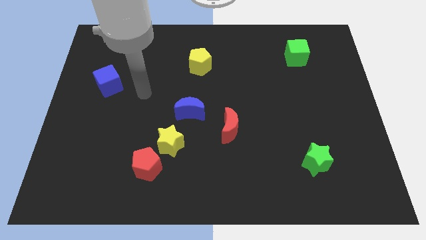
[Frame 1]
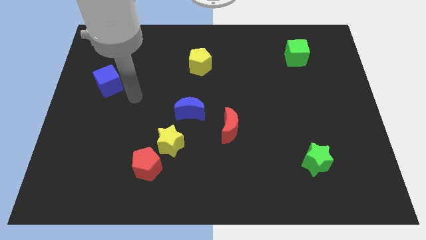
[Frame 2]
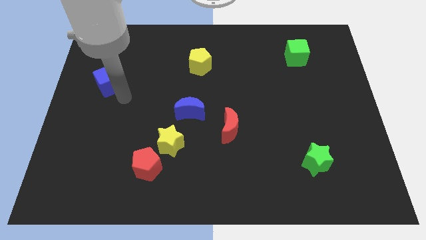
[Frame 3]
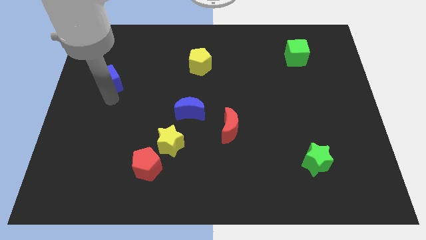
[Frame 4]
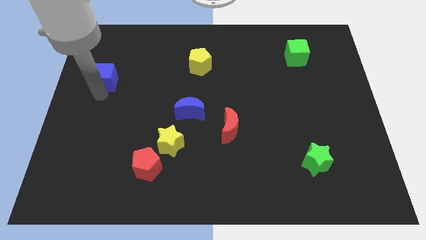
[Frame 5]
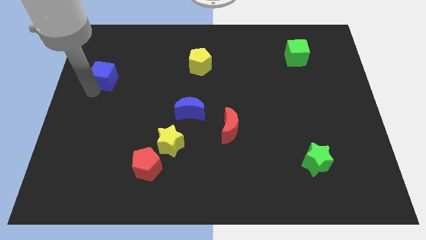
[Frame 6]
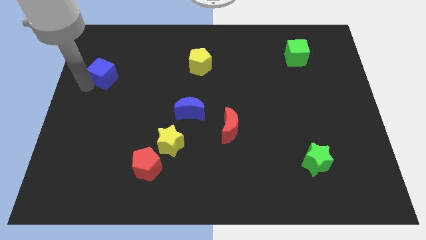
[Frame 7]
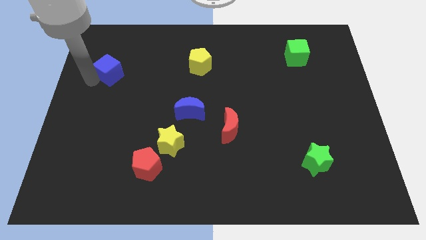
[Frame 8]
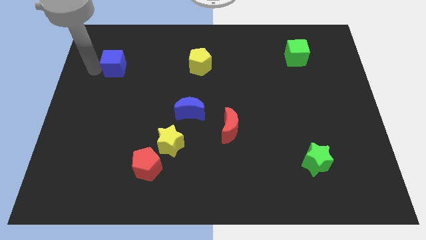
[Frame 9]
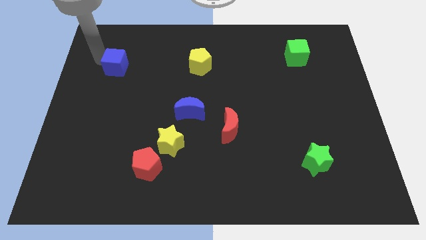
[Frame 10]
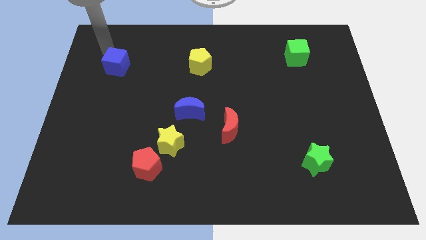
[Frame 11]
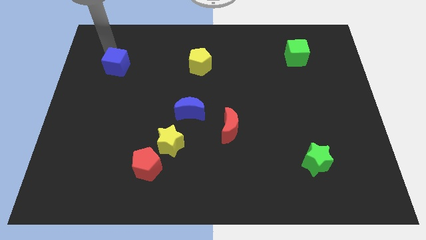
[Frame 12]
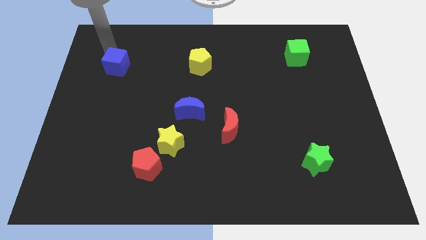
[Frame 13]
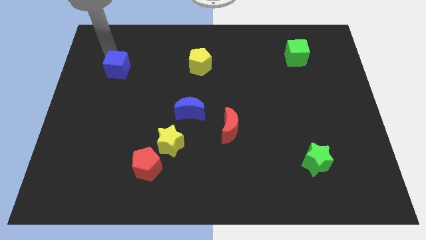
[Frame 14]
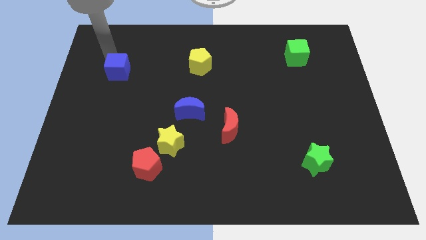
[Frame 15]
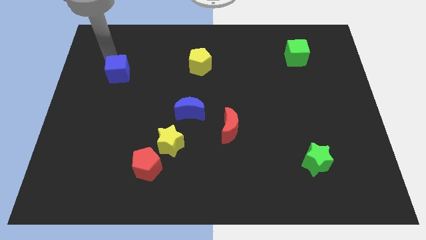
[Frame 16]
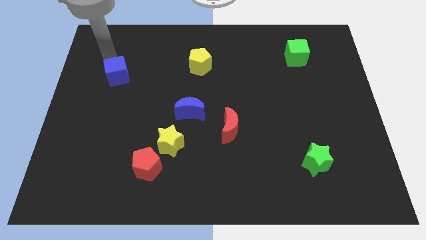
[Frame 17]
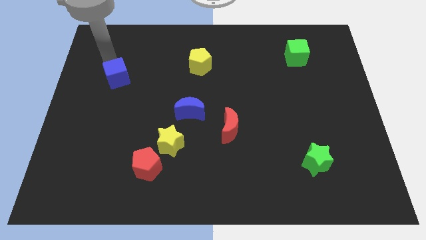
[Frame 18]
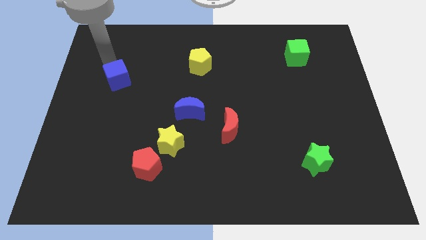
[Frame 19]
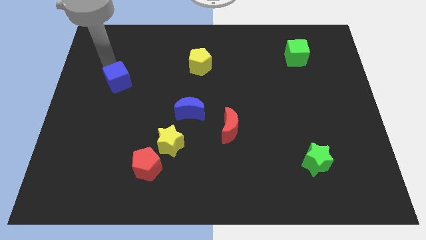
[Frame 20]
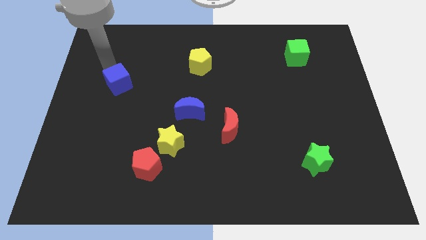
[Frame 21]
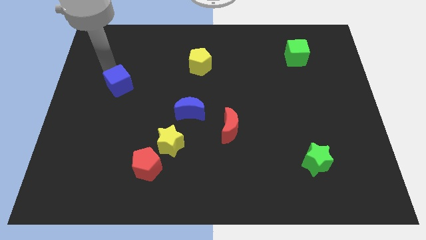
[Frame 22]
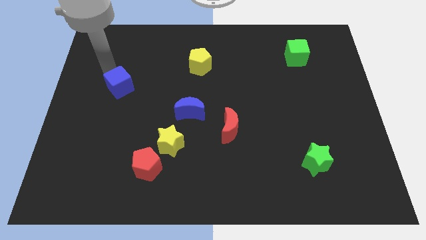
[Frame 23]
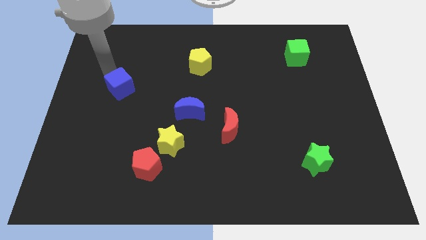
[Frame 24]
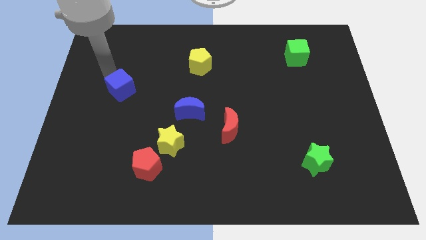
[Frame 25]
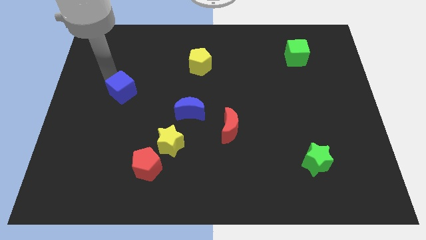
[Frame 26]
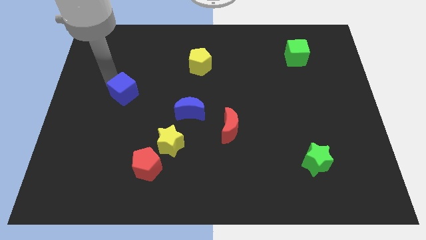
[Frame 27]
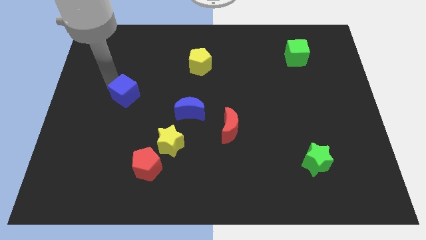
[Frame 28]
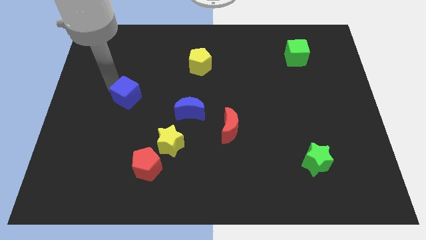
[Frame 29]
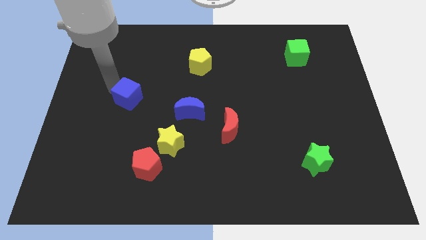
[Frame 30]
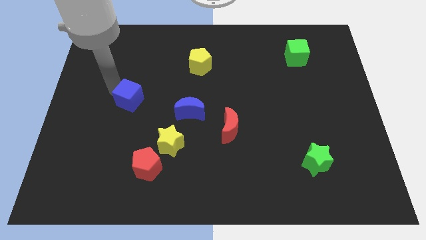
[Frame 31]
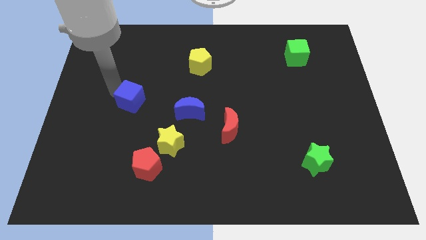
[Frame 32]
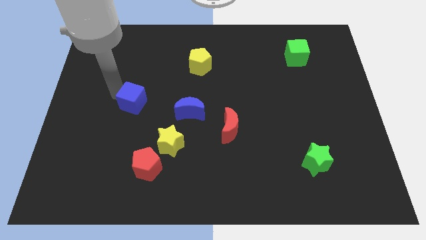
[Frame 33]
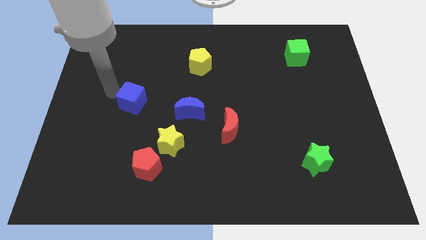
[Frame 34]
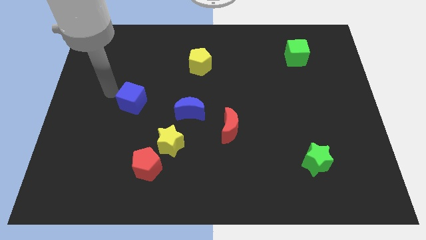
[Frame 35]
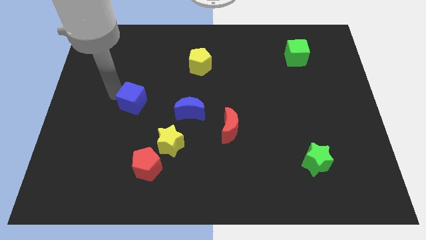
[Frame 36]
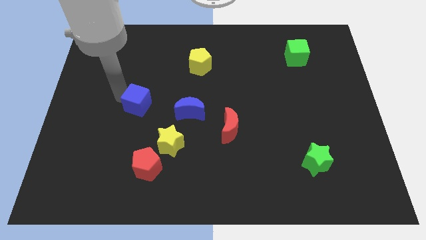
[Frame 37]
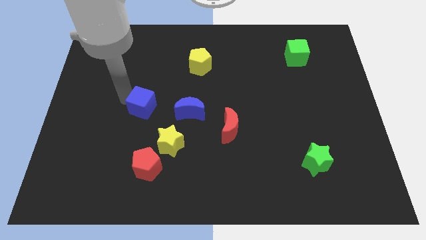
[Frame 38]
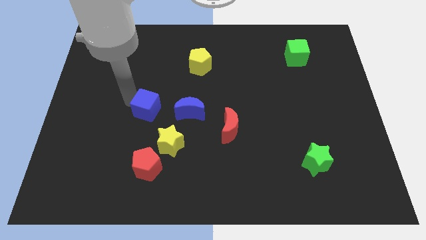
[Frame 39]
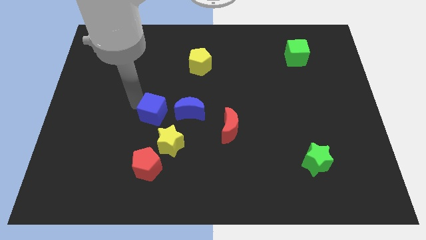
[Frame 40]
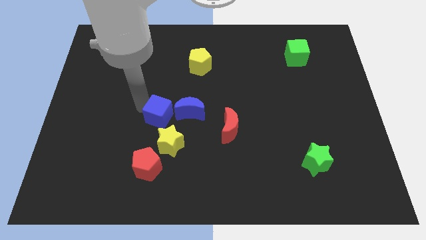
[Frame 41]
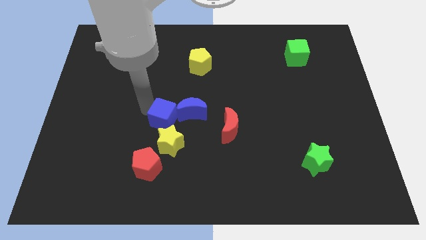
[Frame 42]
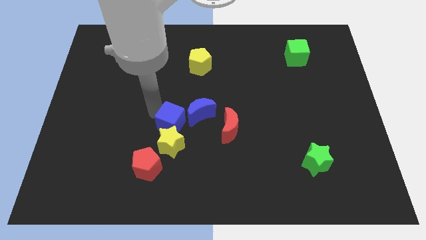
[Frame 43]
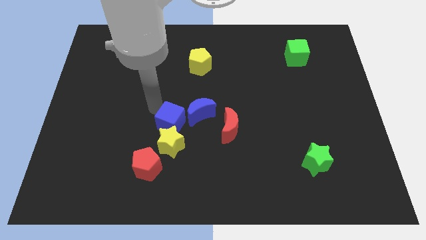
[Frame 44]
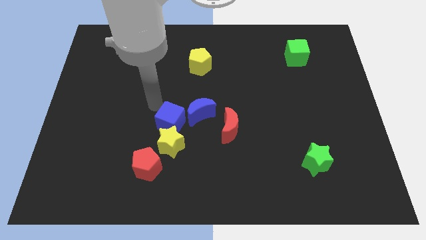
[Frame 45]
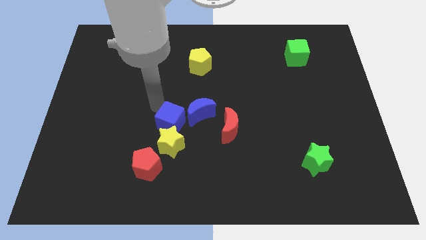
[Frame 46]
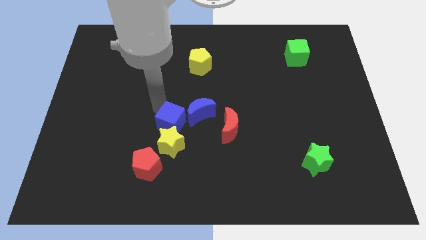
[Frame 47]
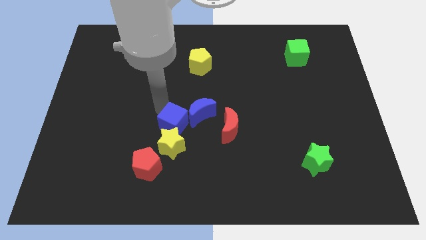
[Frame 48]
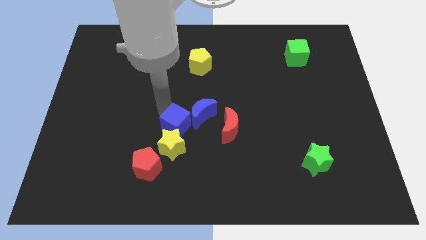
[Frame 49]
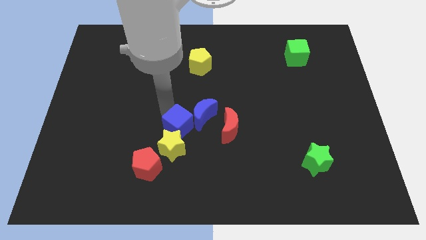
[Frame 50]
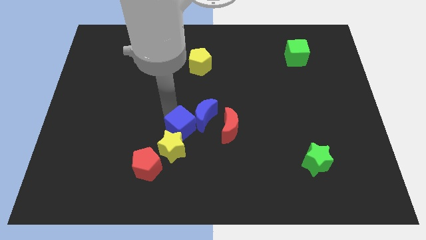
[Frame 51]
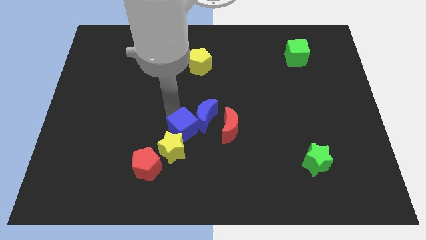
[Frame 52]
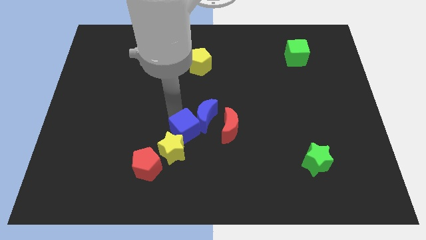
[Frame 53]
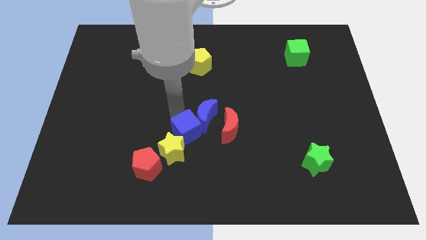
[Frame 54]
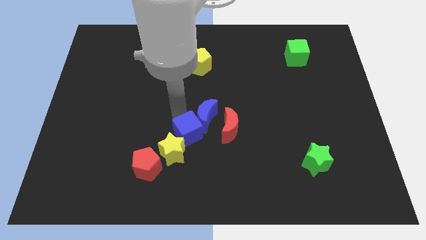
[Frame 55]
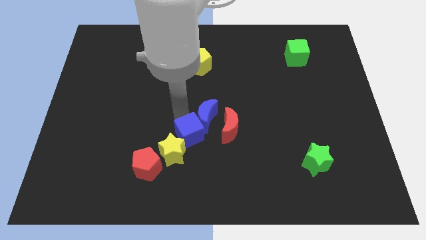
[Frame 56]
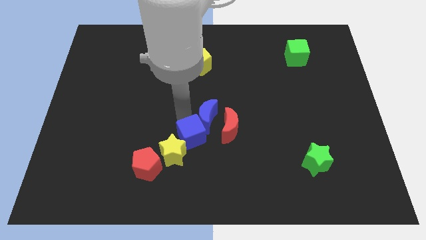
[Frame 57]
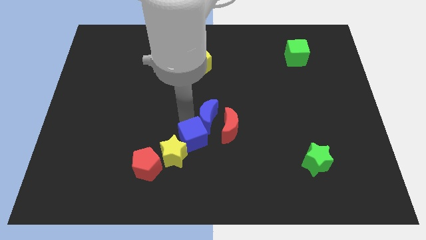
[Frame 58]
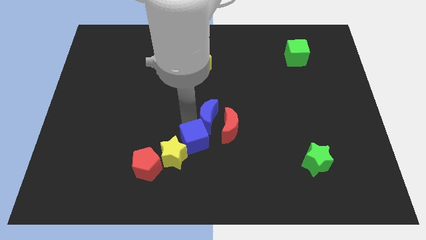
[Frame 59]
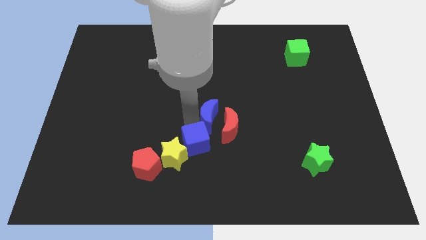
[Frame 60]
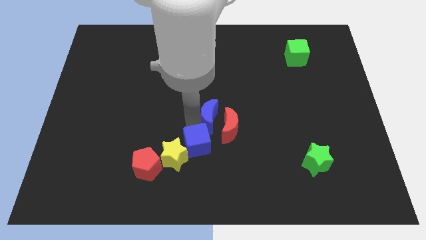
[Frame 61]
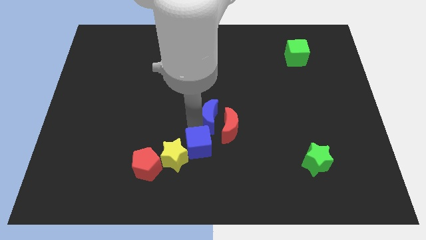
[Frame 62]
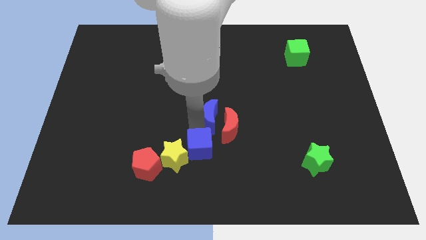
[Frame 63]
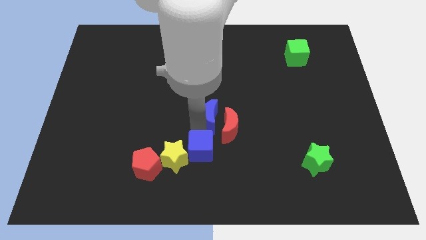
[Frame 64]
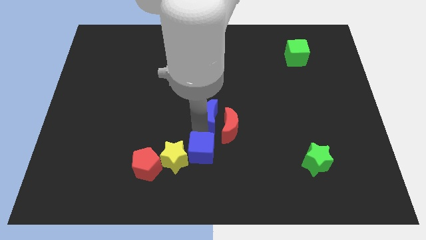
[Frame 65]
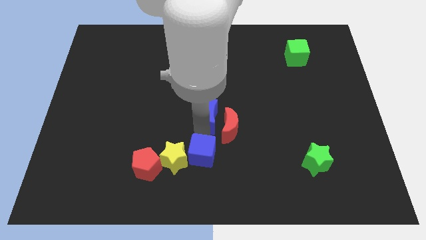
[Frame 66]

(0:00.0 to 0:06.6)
slide the blue cube to the bottom
